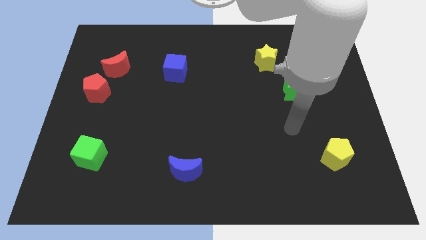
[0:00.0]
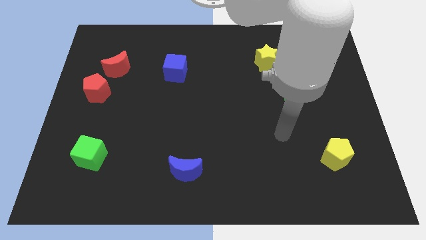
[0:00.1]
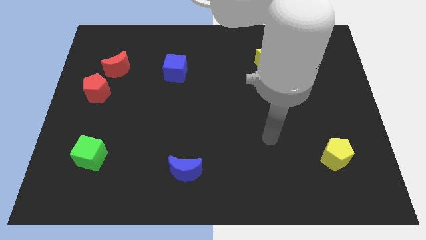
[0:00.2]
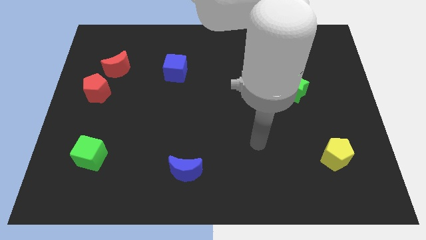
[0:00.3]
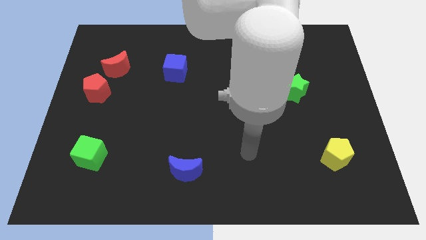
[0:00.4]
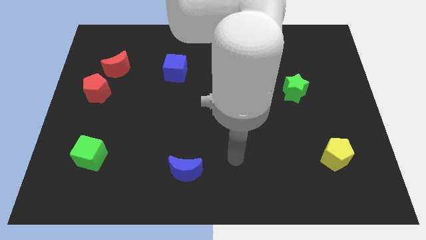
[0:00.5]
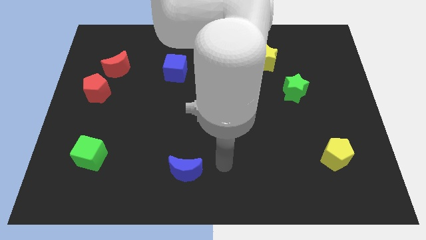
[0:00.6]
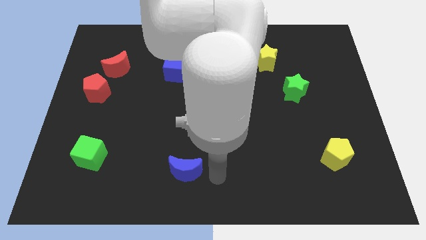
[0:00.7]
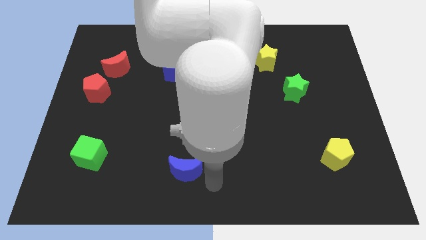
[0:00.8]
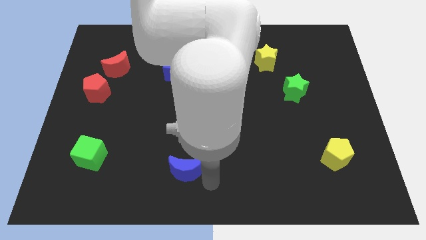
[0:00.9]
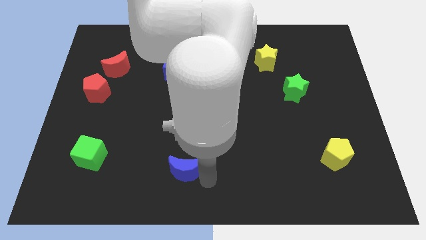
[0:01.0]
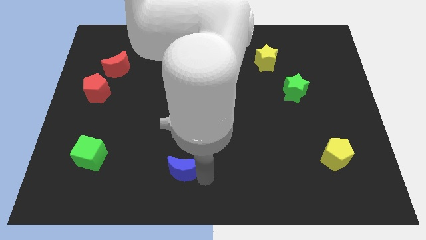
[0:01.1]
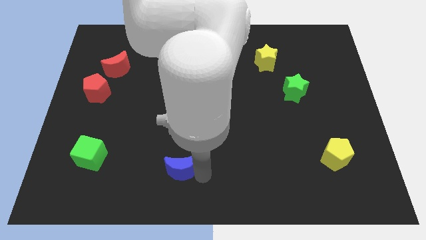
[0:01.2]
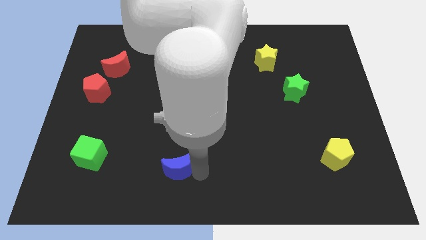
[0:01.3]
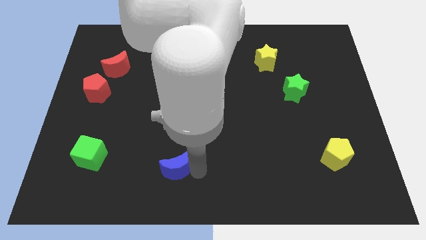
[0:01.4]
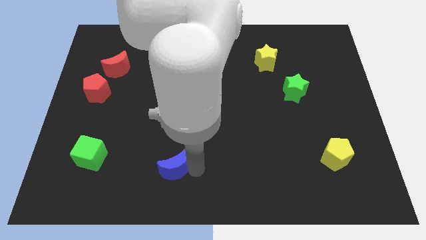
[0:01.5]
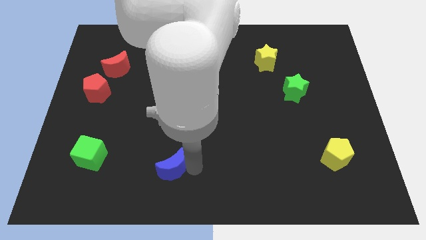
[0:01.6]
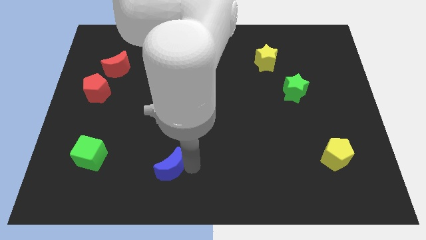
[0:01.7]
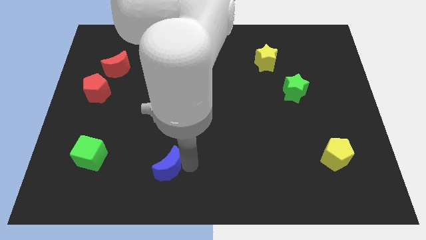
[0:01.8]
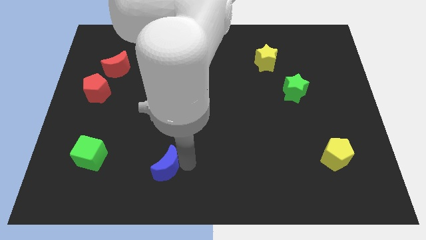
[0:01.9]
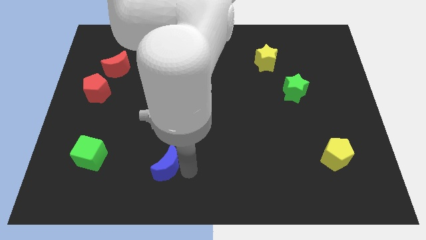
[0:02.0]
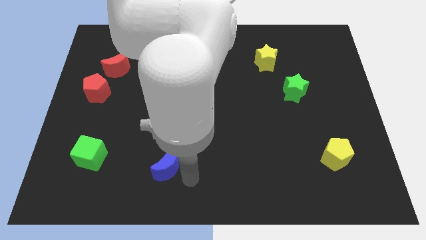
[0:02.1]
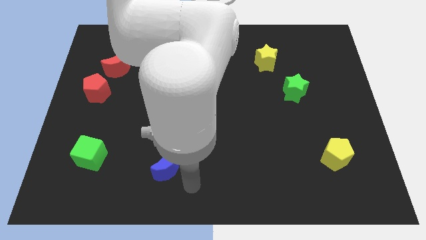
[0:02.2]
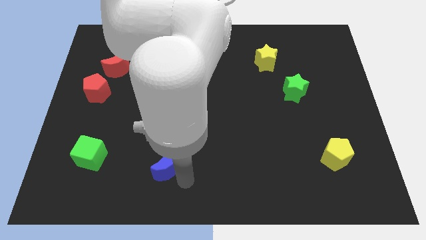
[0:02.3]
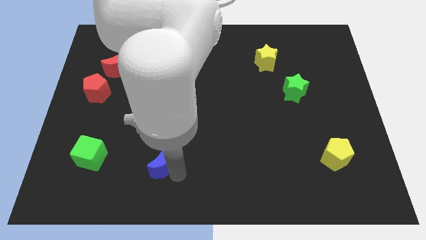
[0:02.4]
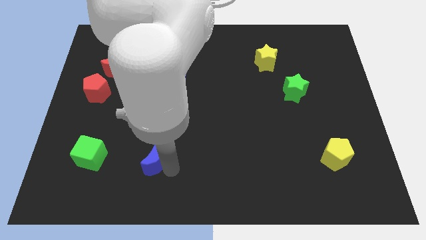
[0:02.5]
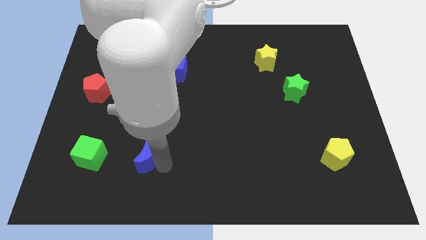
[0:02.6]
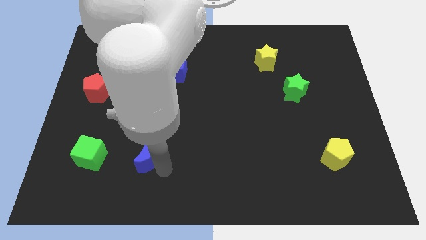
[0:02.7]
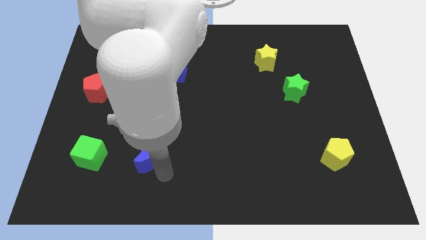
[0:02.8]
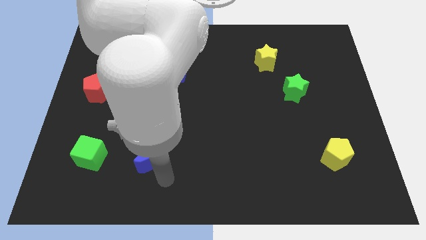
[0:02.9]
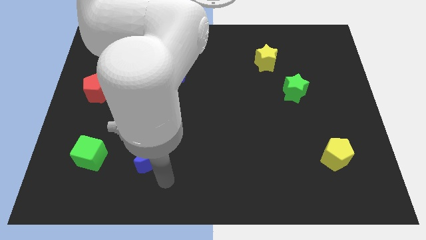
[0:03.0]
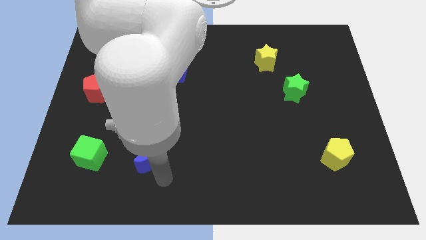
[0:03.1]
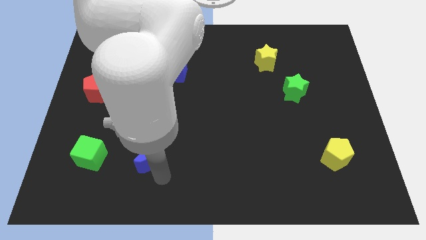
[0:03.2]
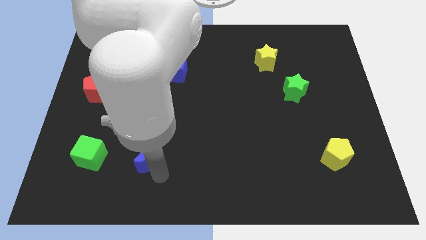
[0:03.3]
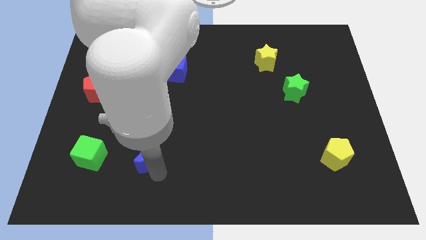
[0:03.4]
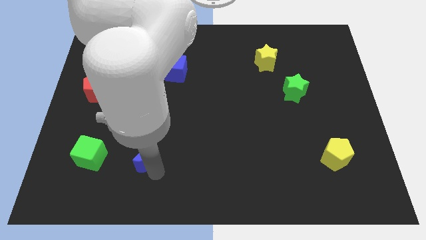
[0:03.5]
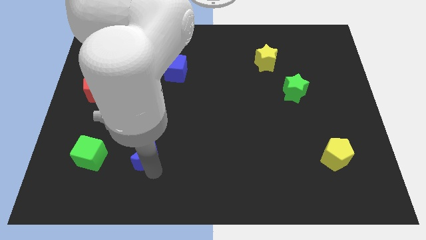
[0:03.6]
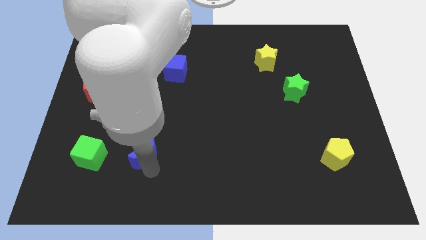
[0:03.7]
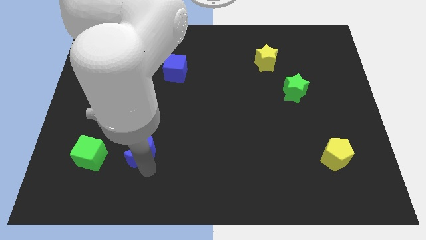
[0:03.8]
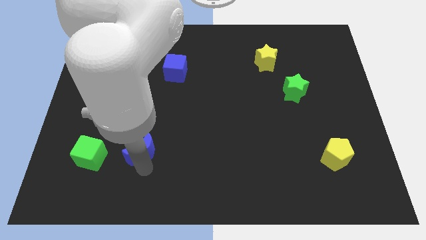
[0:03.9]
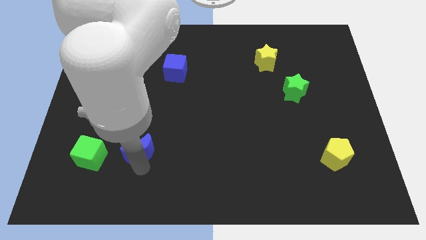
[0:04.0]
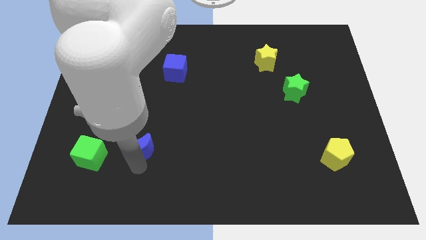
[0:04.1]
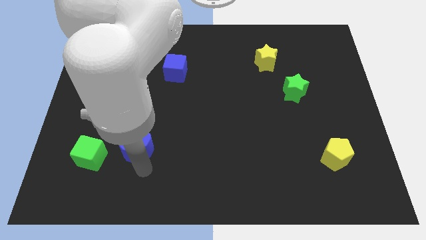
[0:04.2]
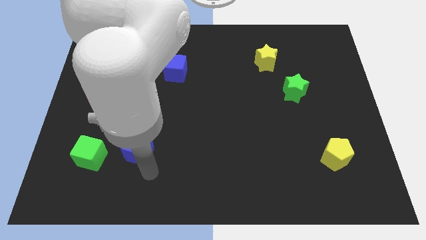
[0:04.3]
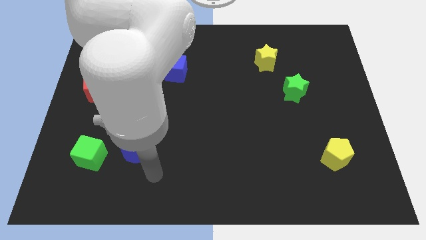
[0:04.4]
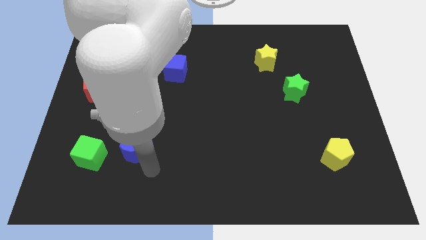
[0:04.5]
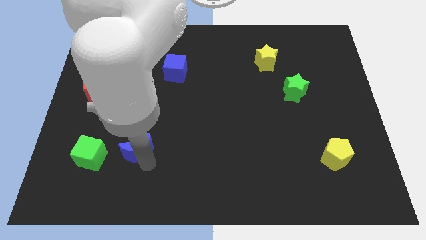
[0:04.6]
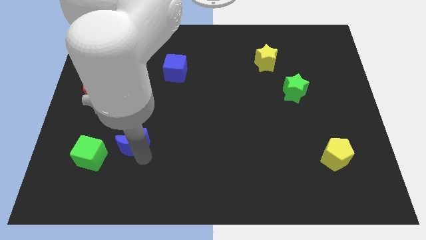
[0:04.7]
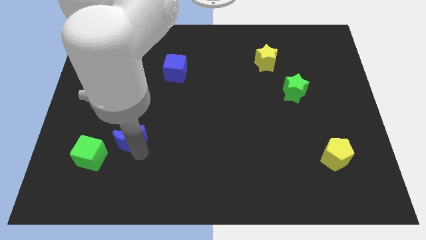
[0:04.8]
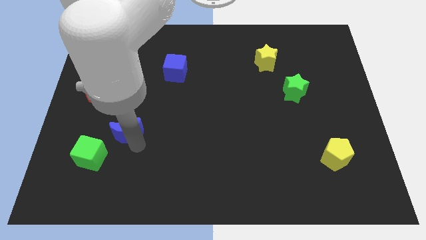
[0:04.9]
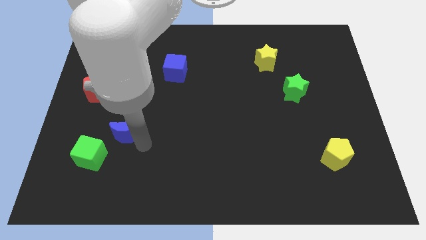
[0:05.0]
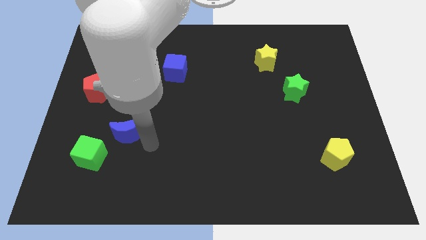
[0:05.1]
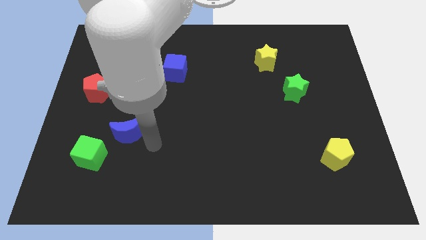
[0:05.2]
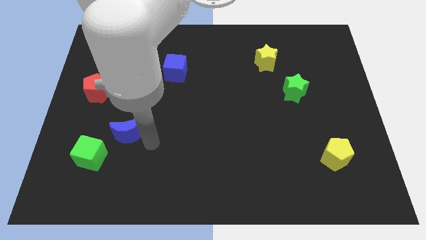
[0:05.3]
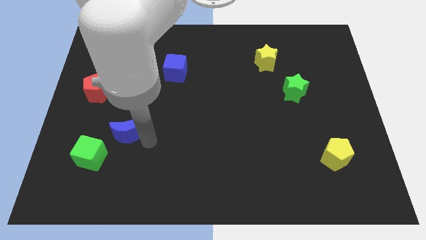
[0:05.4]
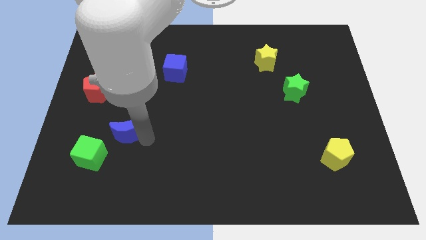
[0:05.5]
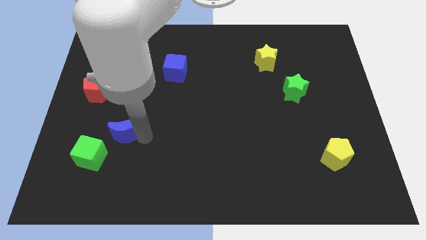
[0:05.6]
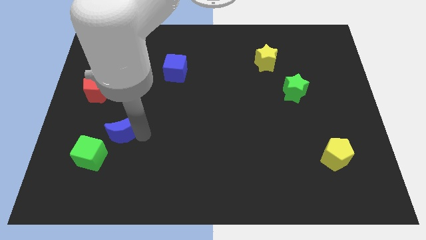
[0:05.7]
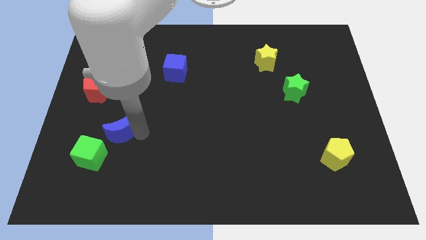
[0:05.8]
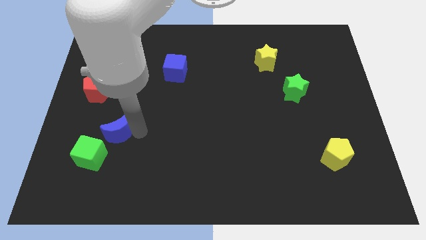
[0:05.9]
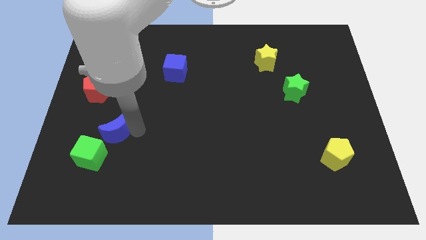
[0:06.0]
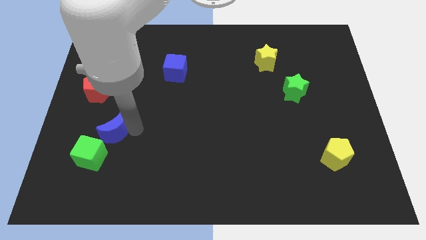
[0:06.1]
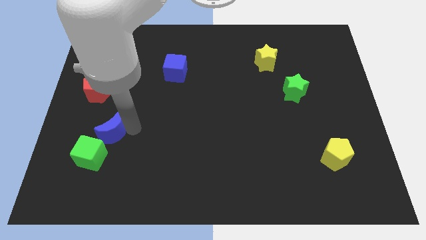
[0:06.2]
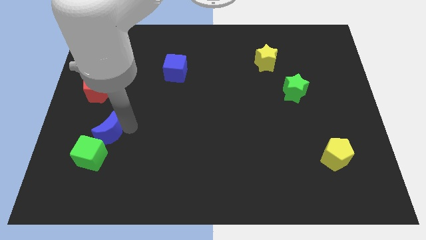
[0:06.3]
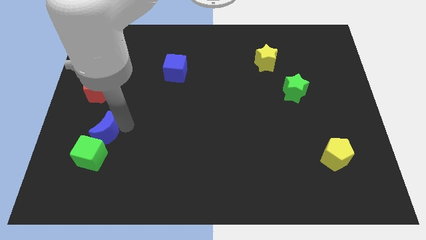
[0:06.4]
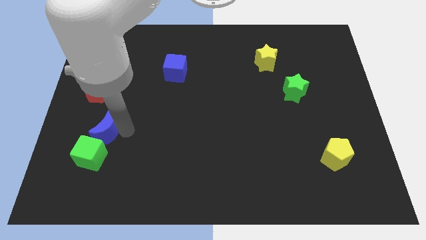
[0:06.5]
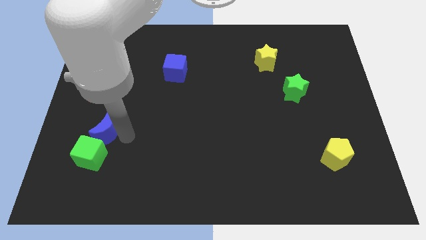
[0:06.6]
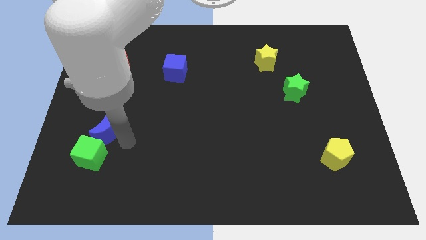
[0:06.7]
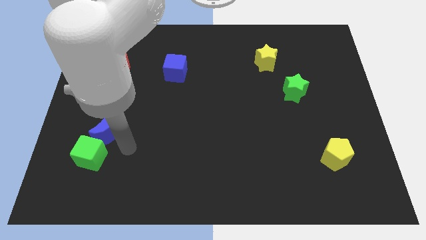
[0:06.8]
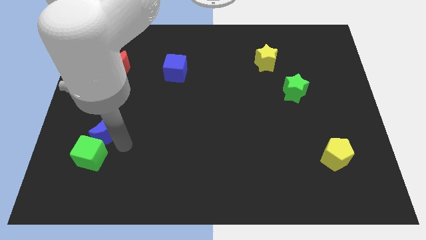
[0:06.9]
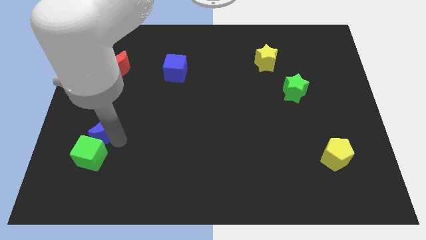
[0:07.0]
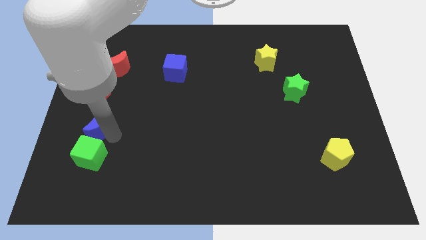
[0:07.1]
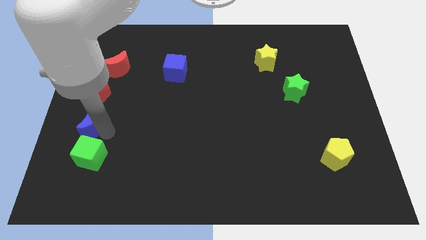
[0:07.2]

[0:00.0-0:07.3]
move the blue moon to the left side of the board
